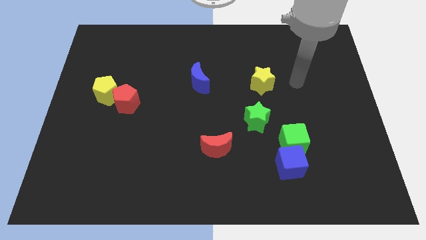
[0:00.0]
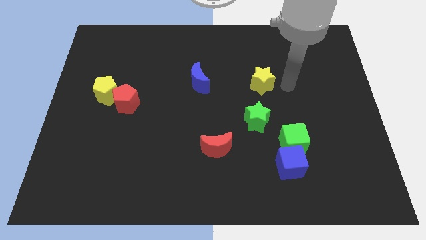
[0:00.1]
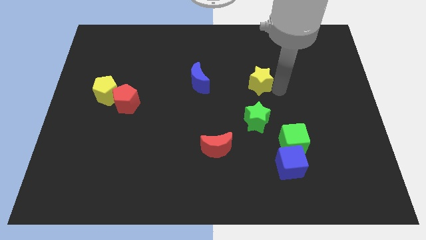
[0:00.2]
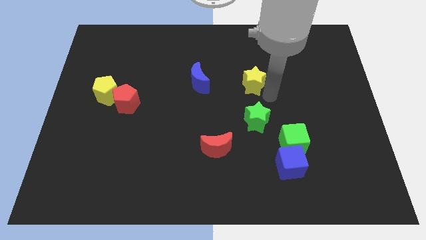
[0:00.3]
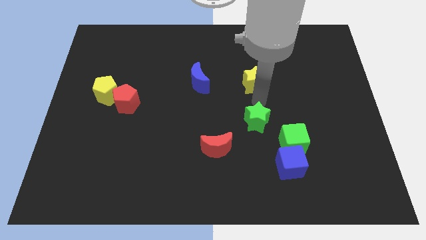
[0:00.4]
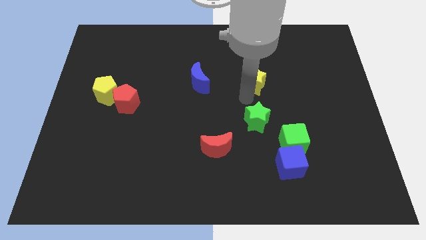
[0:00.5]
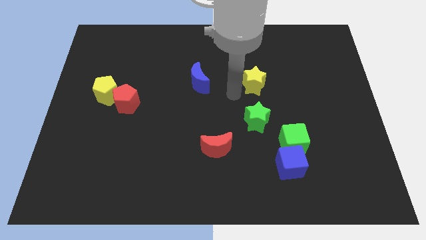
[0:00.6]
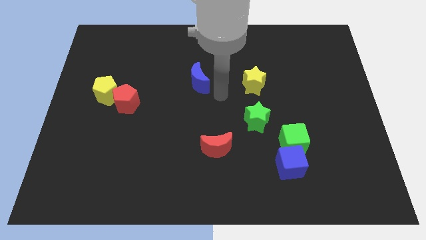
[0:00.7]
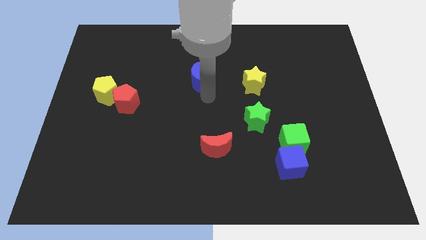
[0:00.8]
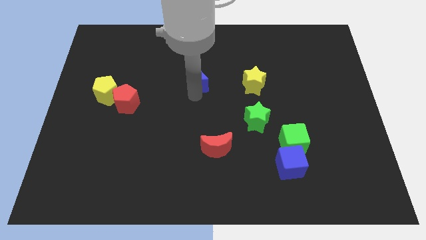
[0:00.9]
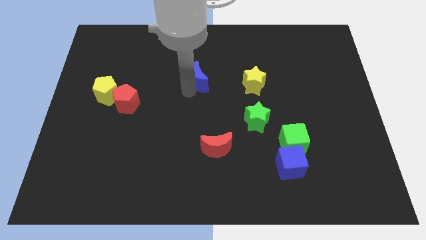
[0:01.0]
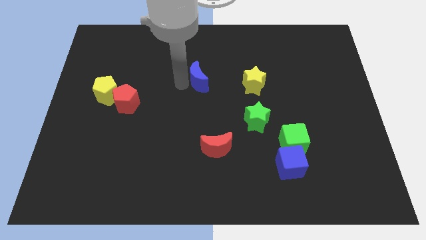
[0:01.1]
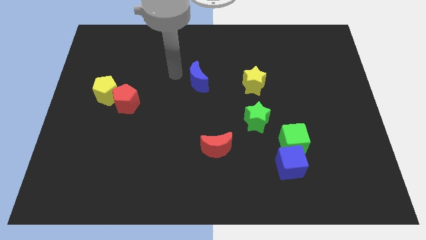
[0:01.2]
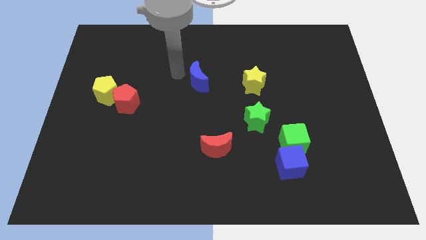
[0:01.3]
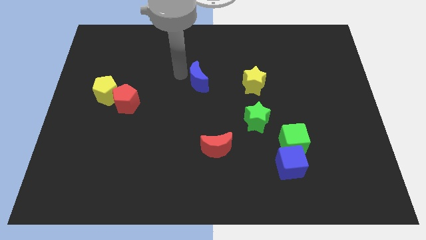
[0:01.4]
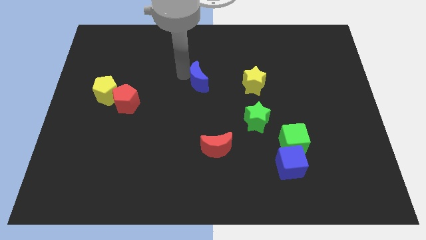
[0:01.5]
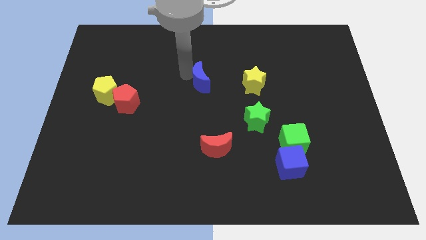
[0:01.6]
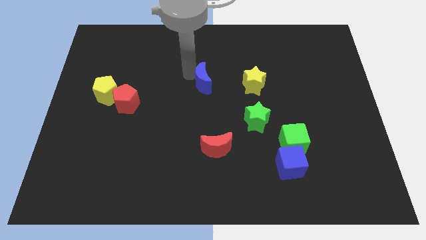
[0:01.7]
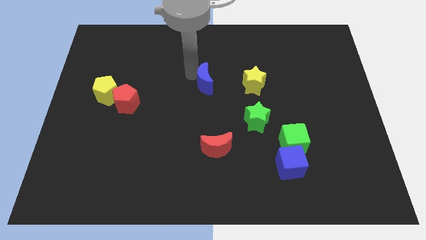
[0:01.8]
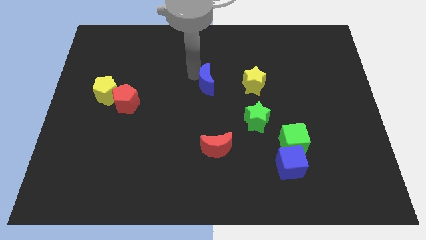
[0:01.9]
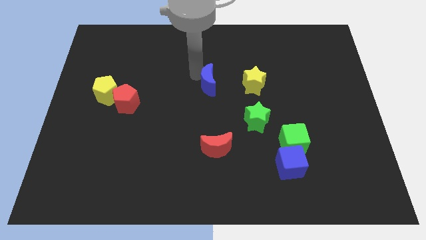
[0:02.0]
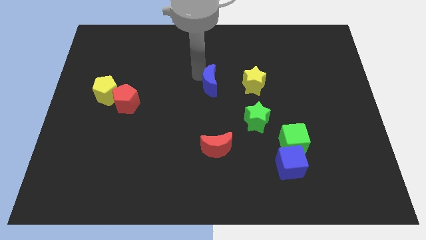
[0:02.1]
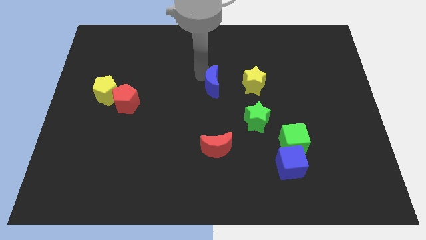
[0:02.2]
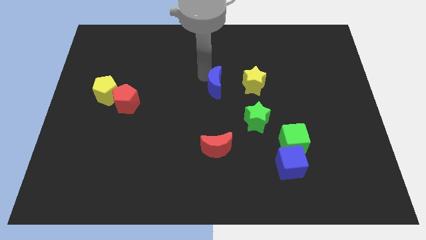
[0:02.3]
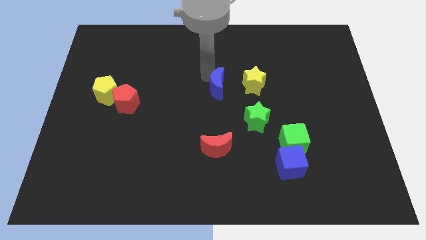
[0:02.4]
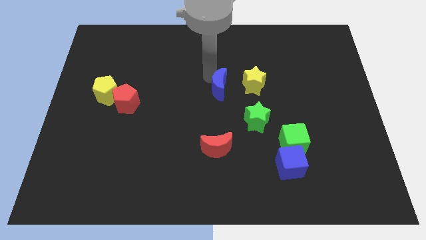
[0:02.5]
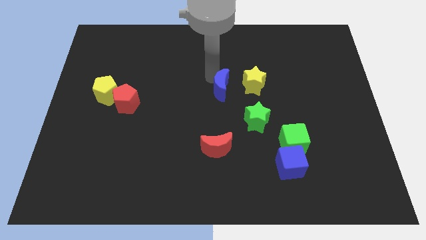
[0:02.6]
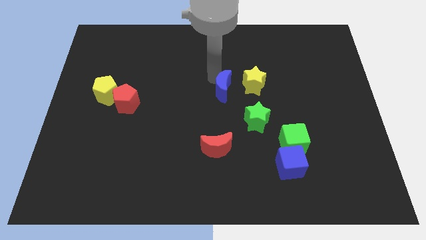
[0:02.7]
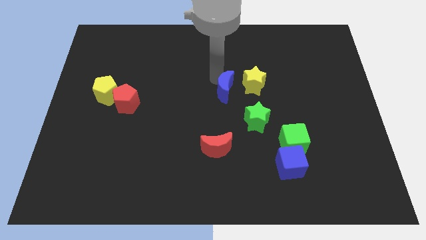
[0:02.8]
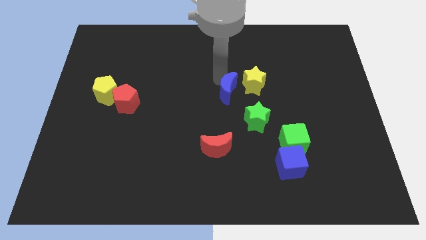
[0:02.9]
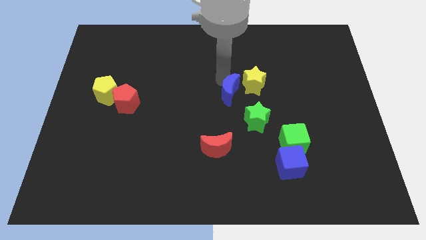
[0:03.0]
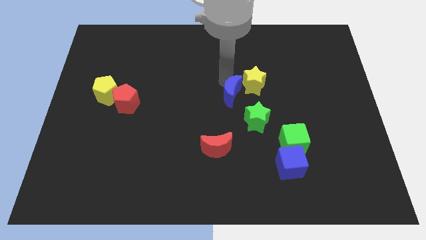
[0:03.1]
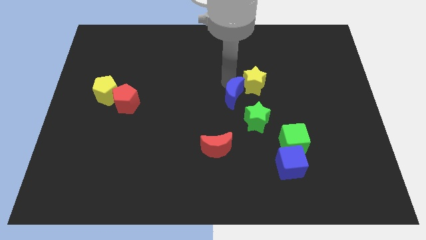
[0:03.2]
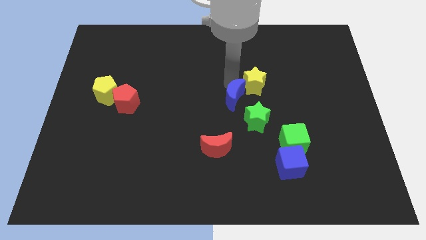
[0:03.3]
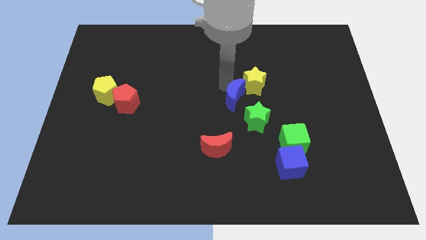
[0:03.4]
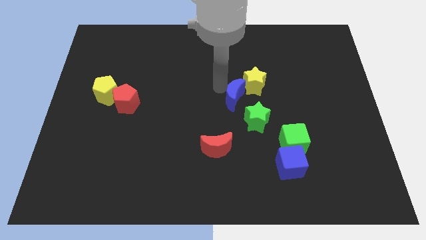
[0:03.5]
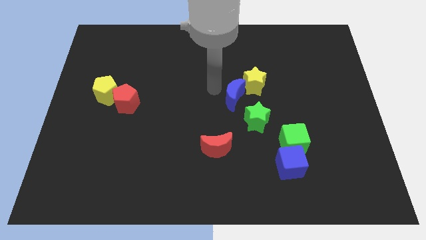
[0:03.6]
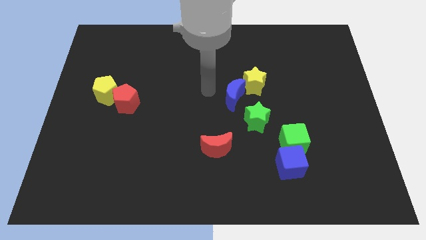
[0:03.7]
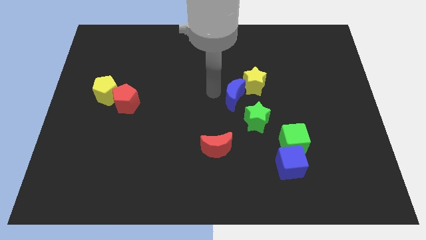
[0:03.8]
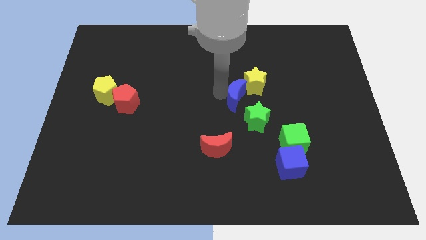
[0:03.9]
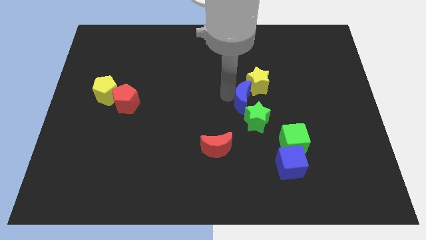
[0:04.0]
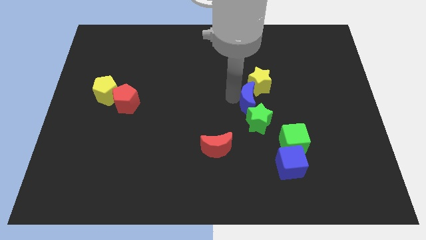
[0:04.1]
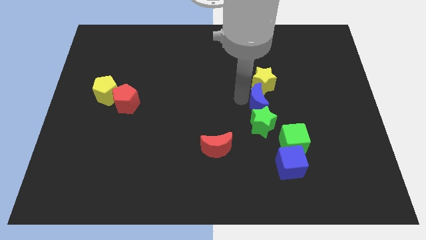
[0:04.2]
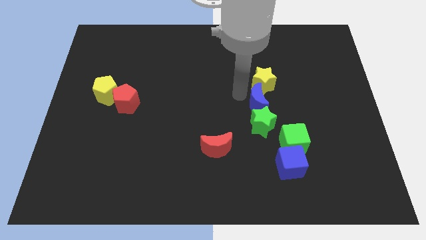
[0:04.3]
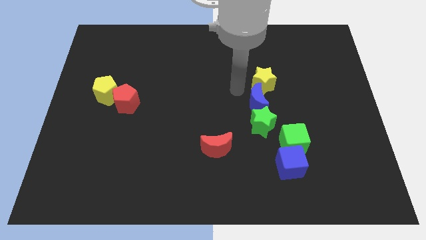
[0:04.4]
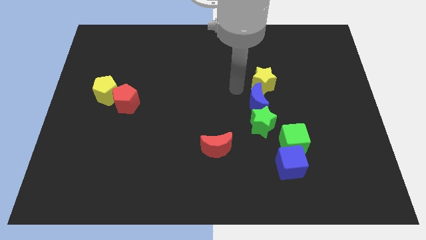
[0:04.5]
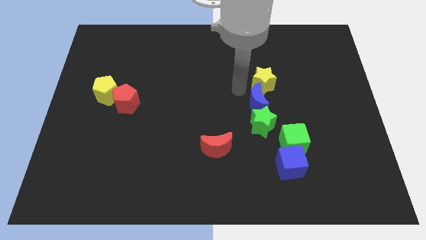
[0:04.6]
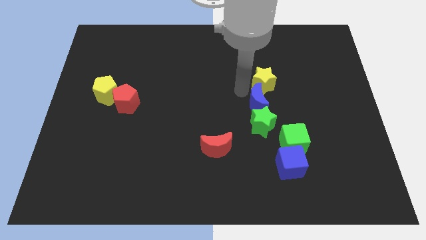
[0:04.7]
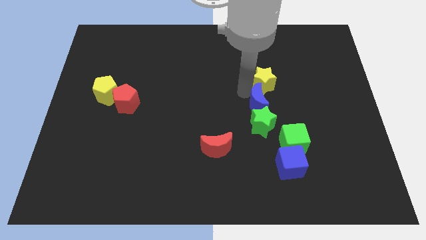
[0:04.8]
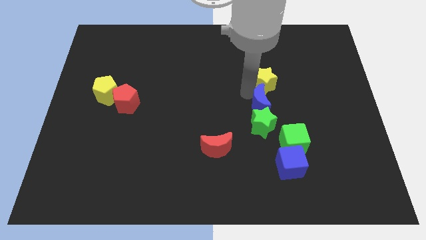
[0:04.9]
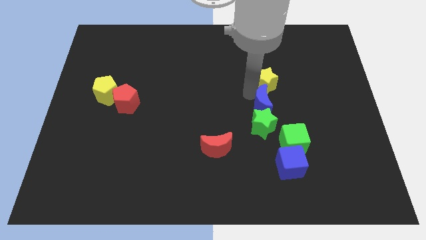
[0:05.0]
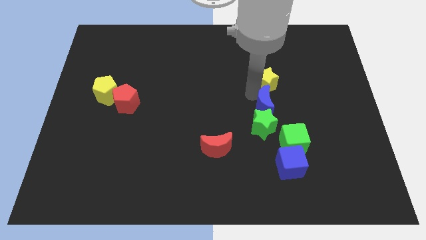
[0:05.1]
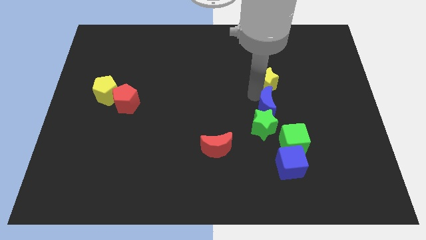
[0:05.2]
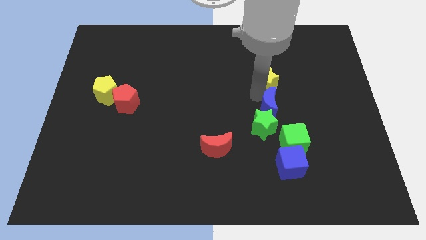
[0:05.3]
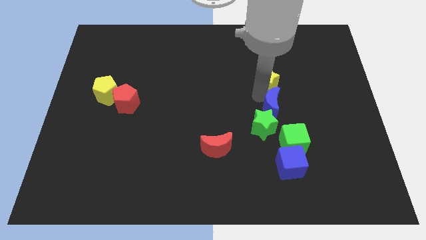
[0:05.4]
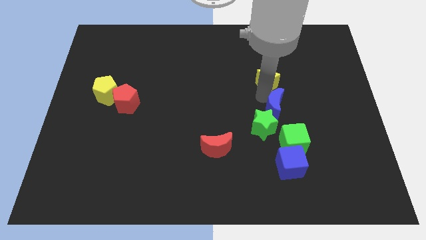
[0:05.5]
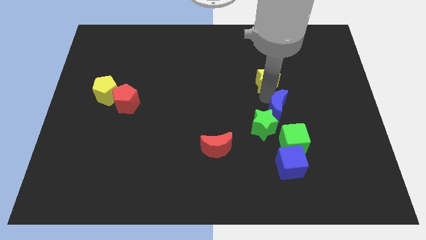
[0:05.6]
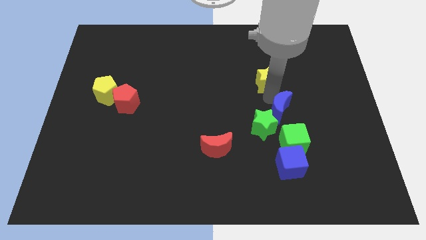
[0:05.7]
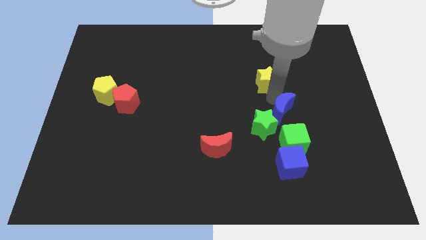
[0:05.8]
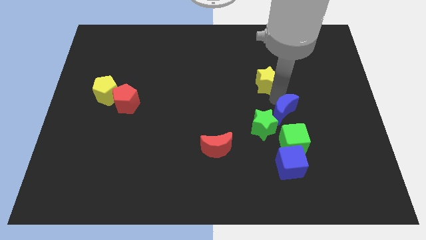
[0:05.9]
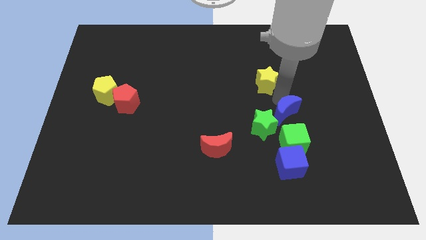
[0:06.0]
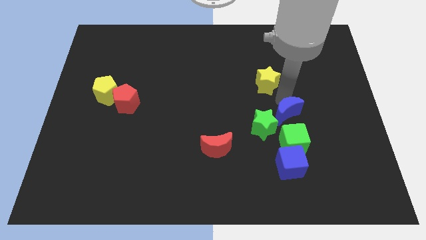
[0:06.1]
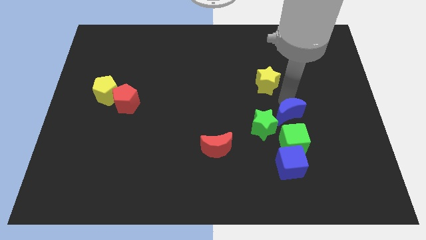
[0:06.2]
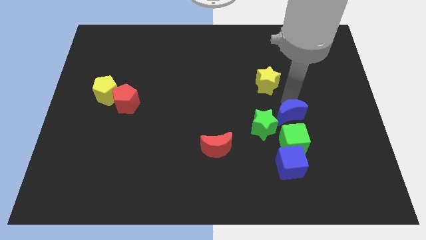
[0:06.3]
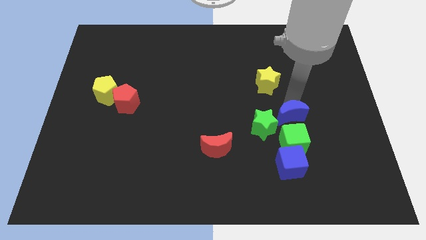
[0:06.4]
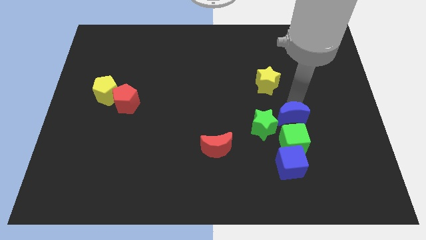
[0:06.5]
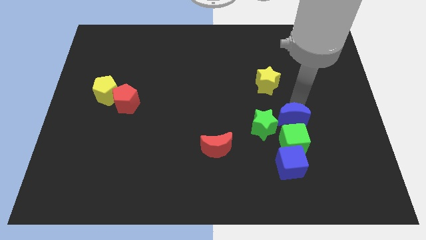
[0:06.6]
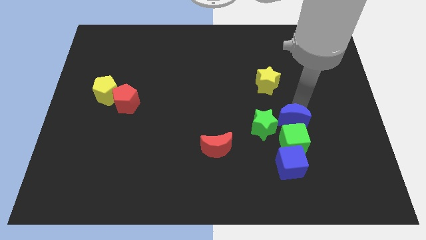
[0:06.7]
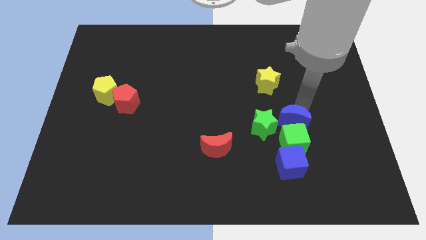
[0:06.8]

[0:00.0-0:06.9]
move the blue moon to the green cube
